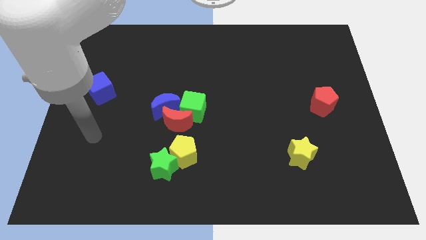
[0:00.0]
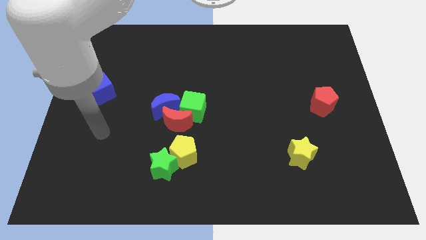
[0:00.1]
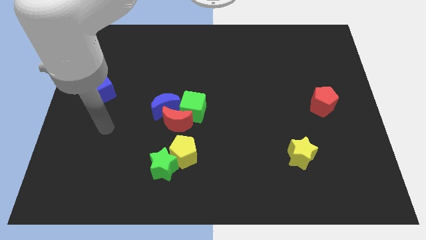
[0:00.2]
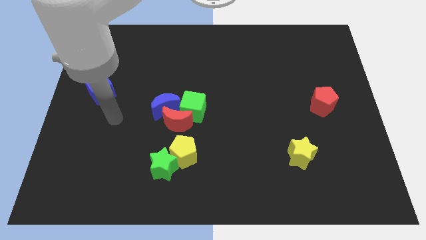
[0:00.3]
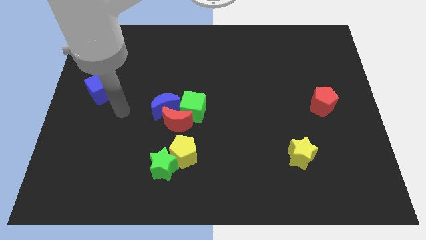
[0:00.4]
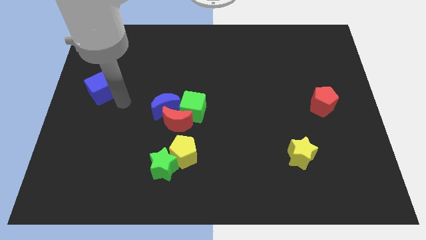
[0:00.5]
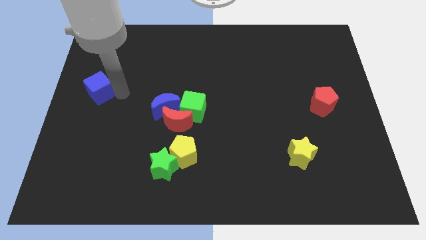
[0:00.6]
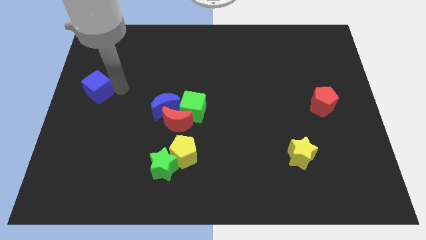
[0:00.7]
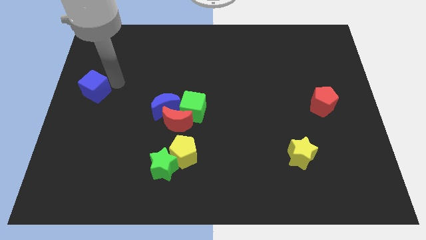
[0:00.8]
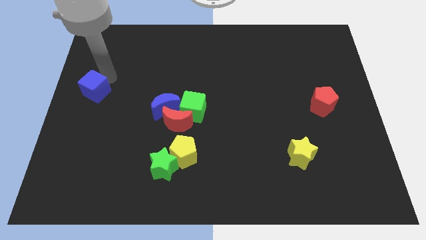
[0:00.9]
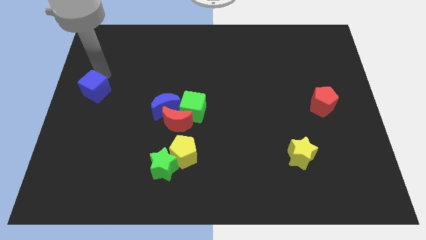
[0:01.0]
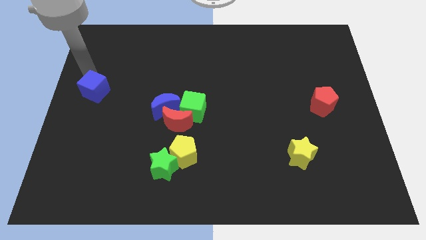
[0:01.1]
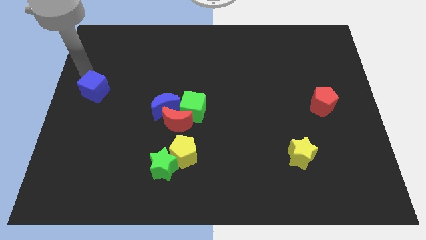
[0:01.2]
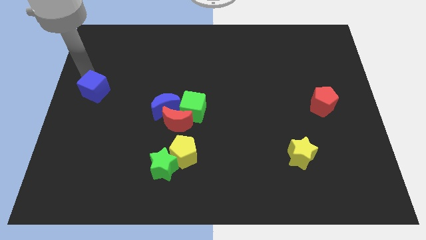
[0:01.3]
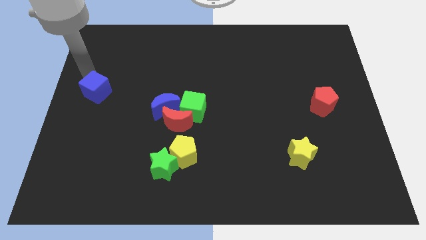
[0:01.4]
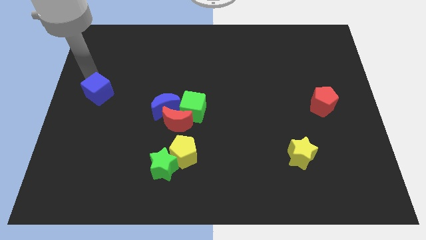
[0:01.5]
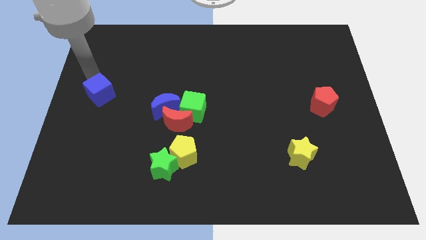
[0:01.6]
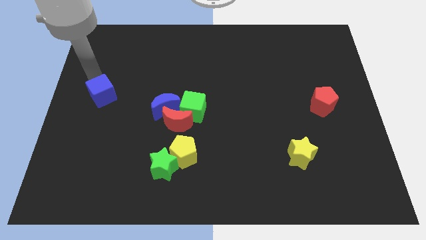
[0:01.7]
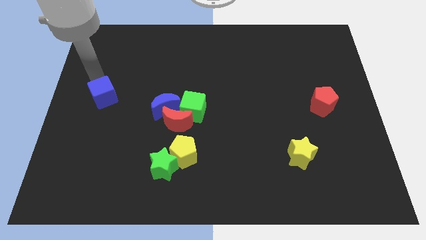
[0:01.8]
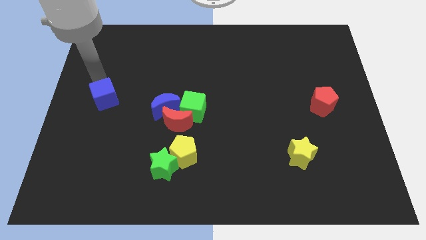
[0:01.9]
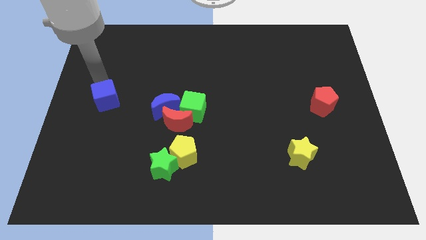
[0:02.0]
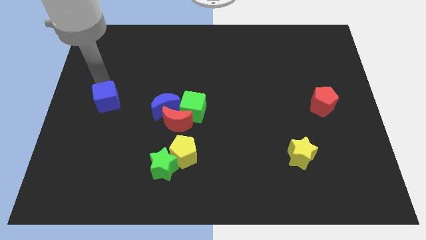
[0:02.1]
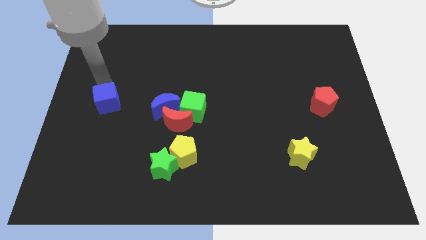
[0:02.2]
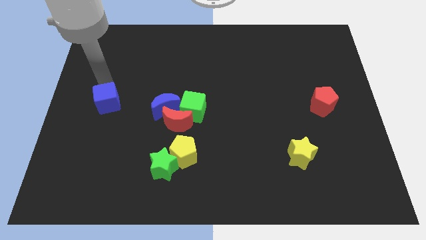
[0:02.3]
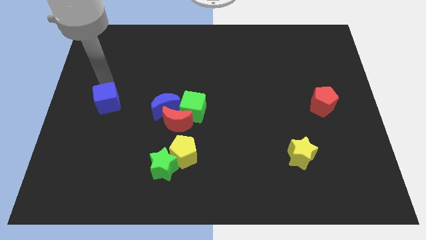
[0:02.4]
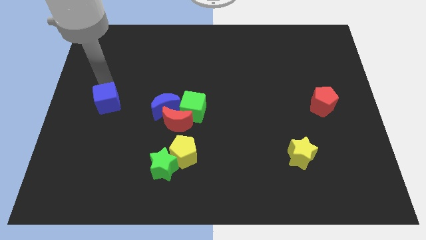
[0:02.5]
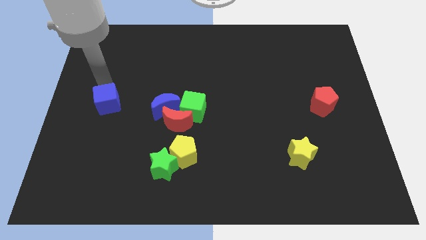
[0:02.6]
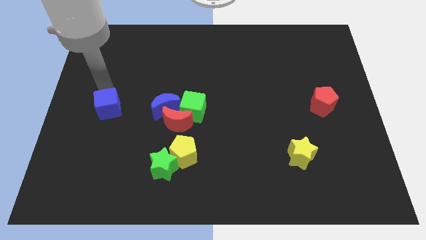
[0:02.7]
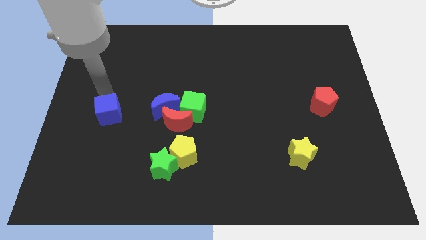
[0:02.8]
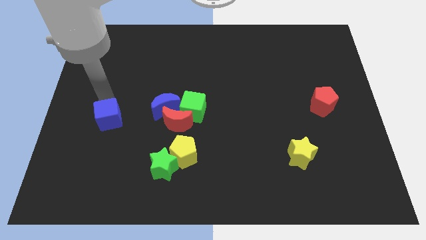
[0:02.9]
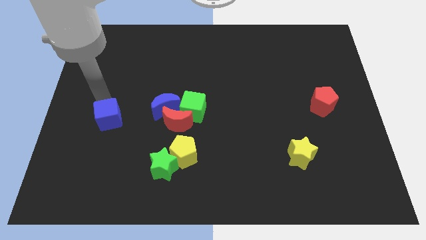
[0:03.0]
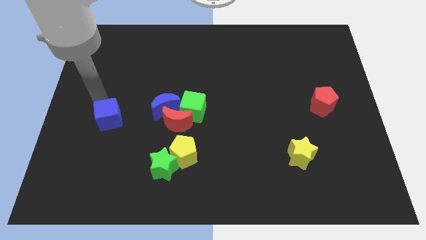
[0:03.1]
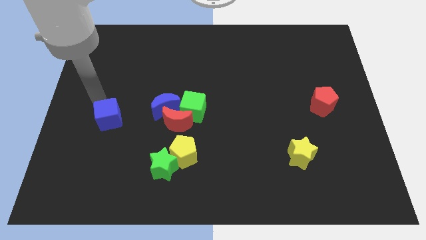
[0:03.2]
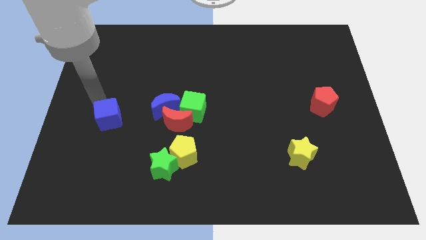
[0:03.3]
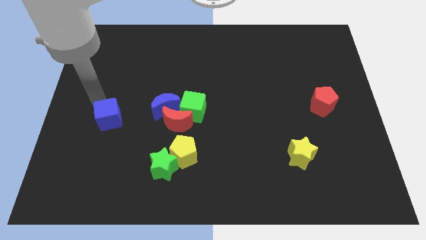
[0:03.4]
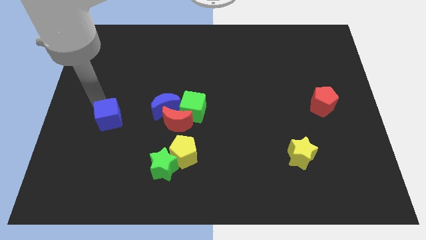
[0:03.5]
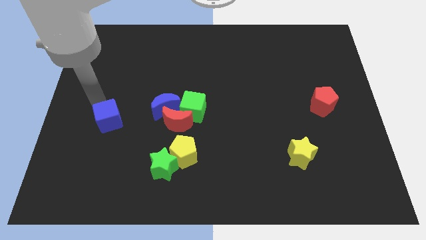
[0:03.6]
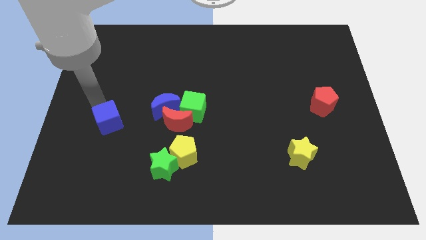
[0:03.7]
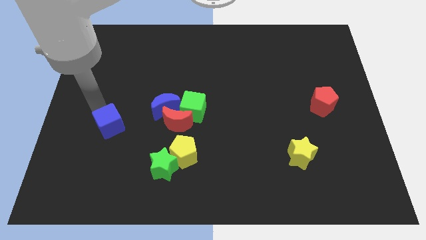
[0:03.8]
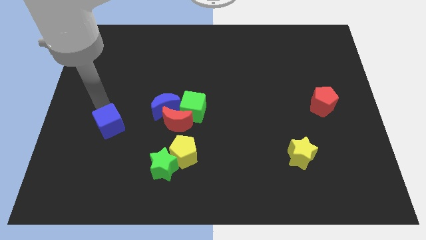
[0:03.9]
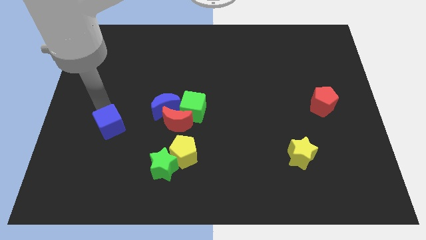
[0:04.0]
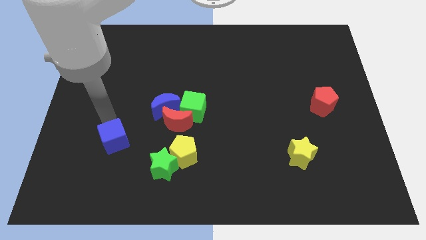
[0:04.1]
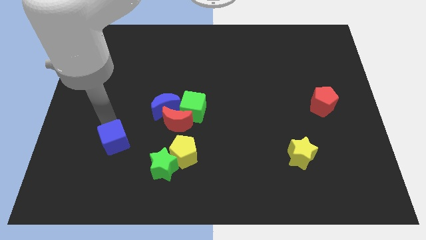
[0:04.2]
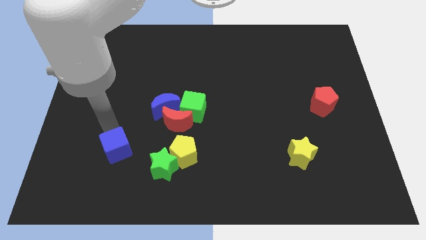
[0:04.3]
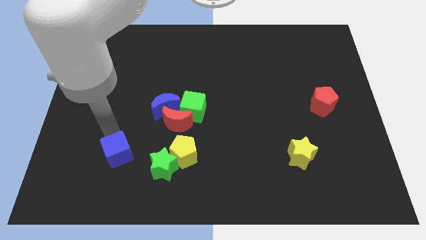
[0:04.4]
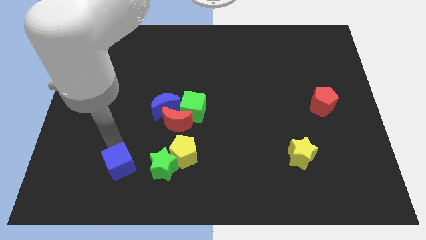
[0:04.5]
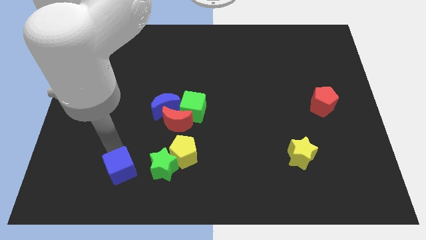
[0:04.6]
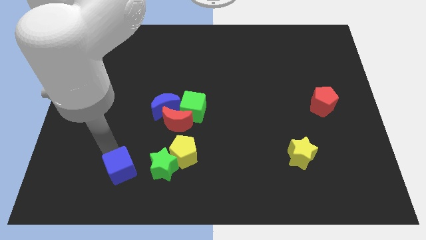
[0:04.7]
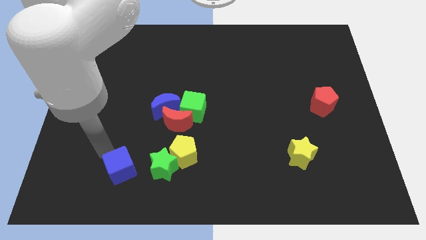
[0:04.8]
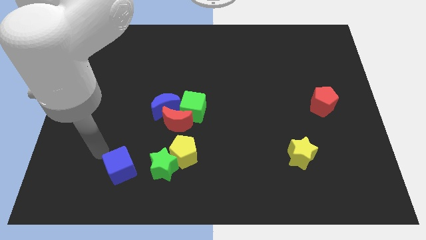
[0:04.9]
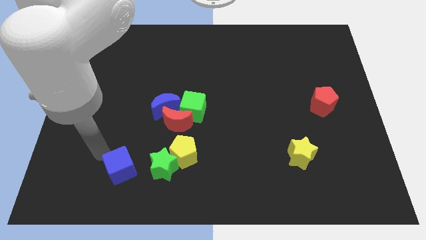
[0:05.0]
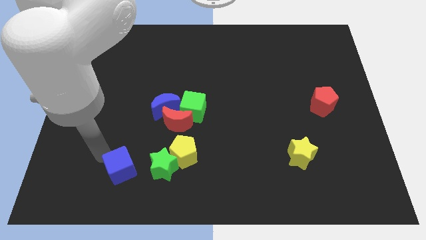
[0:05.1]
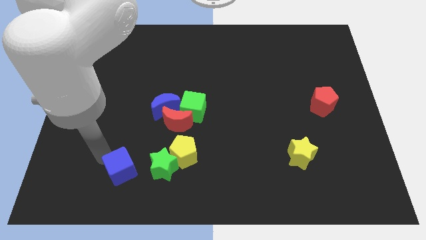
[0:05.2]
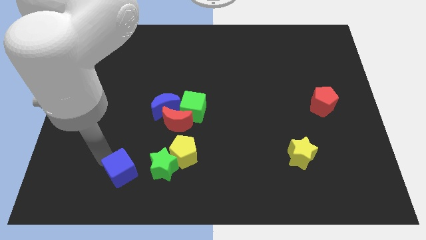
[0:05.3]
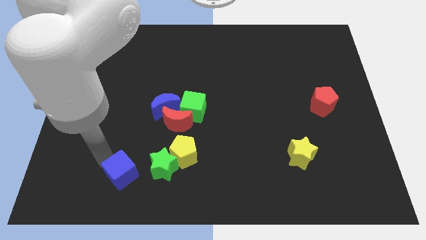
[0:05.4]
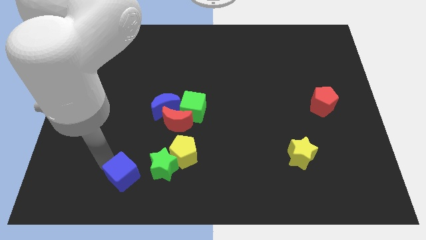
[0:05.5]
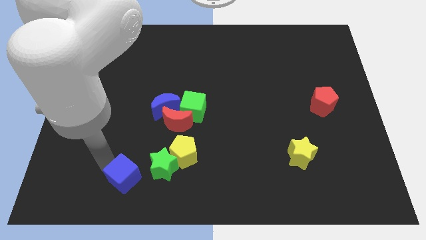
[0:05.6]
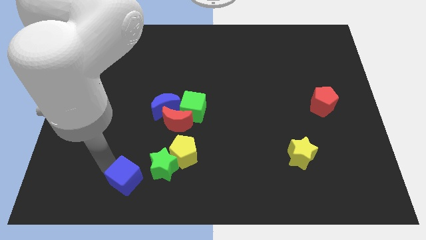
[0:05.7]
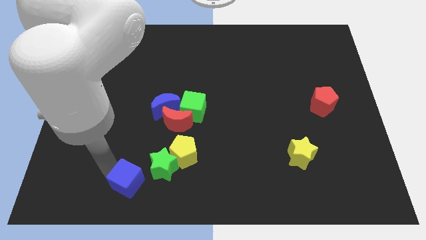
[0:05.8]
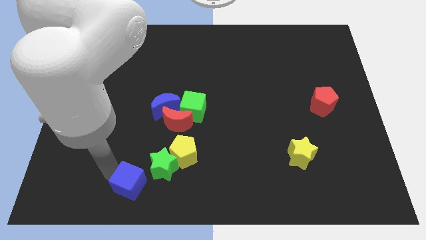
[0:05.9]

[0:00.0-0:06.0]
push the blue cube downwards and to the right diagonally

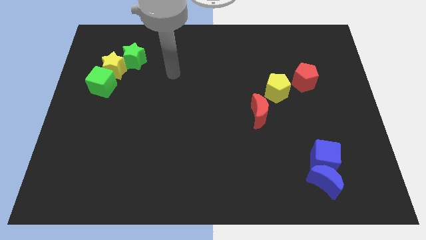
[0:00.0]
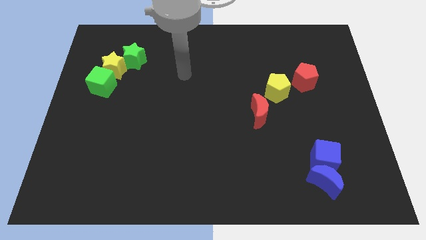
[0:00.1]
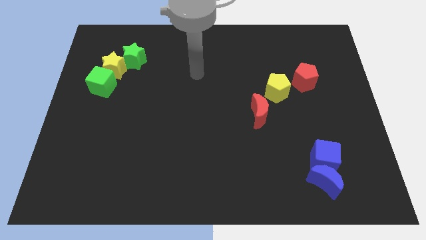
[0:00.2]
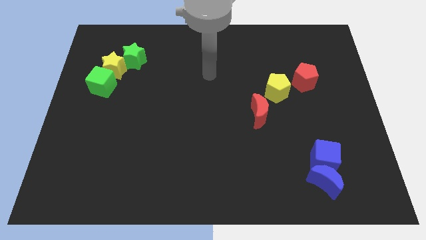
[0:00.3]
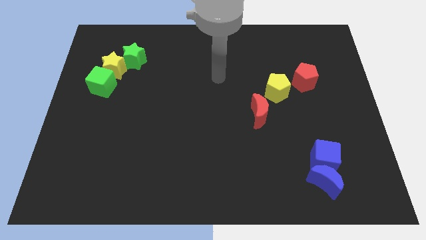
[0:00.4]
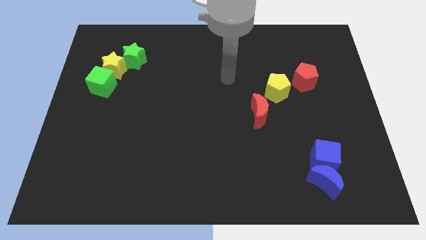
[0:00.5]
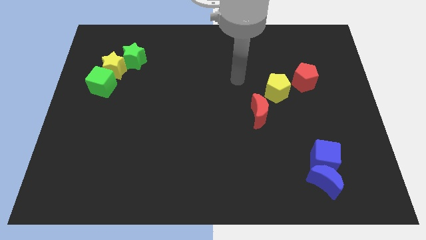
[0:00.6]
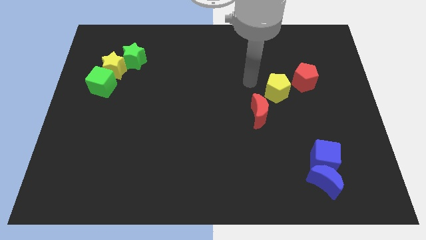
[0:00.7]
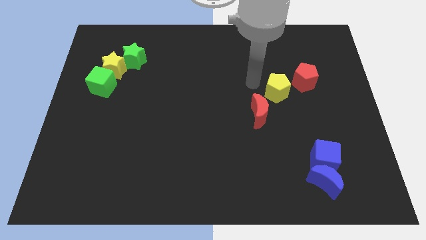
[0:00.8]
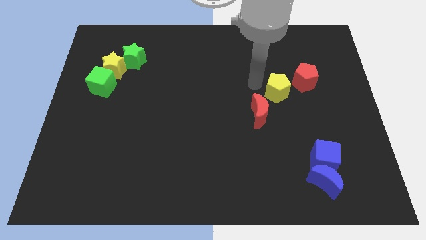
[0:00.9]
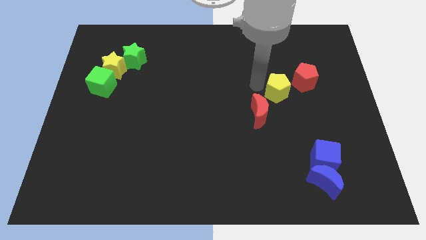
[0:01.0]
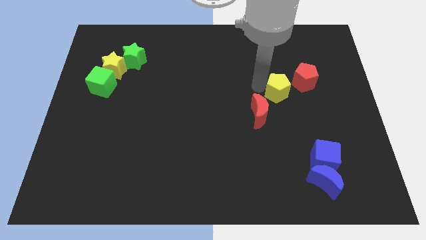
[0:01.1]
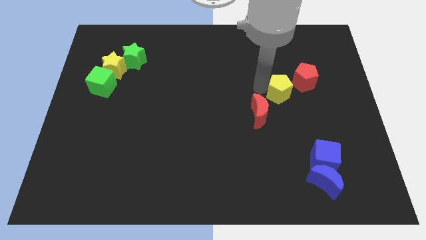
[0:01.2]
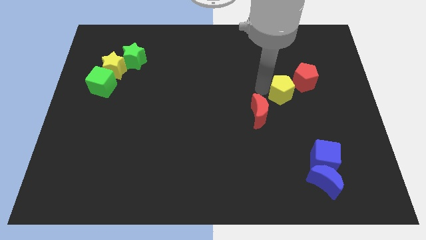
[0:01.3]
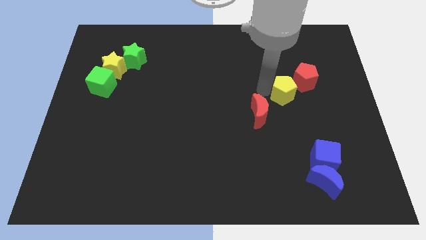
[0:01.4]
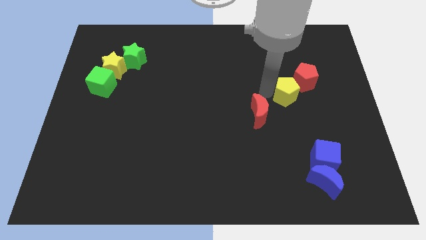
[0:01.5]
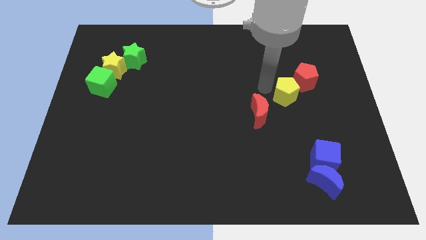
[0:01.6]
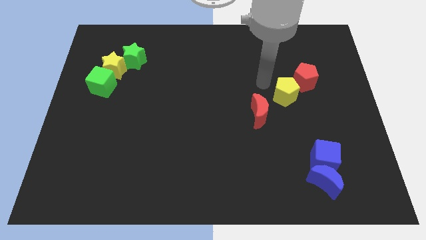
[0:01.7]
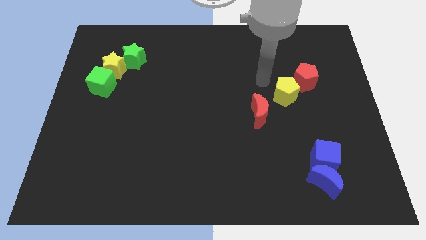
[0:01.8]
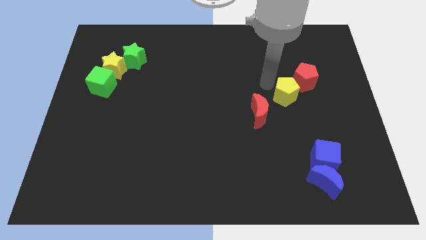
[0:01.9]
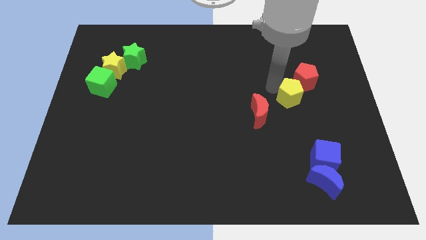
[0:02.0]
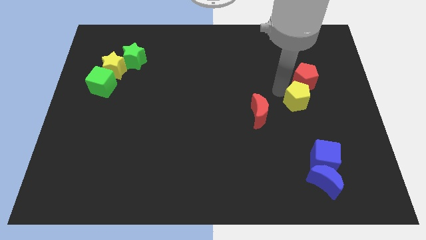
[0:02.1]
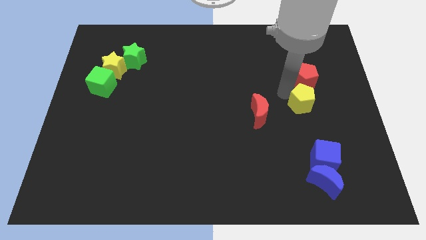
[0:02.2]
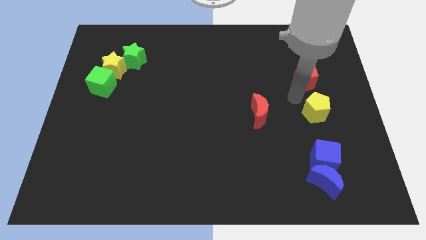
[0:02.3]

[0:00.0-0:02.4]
move the yellow pentagon slightly down and then to the right
